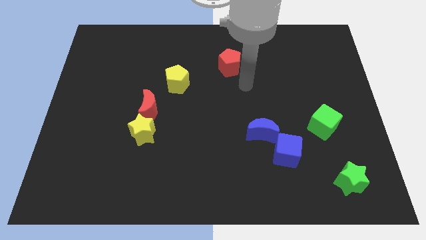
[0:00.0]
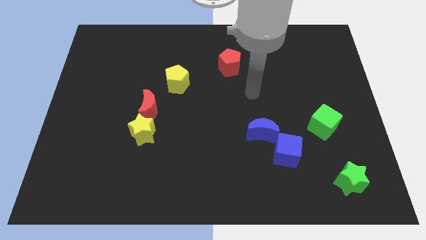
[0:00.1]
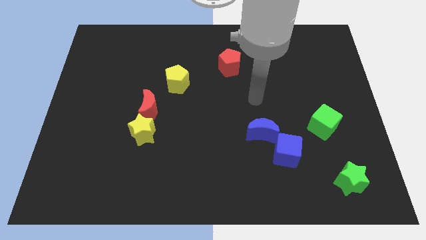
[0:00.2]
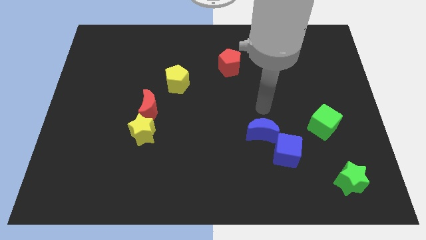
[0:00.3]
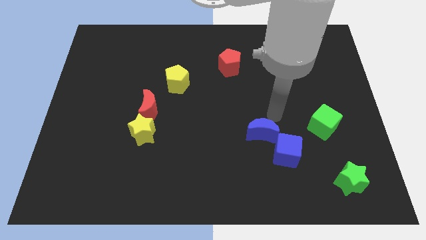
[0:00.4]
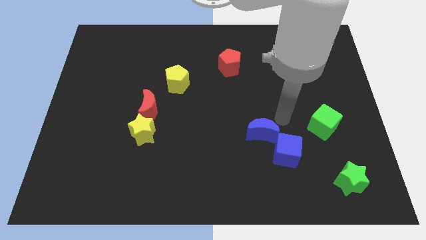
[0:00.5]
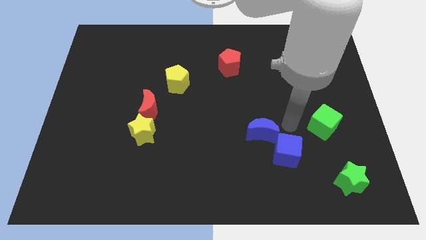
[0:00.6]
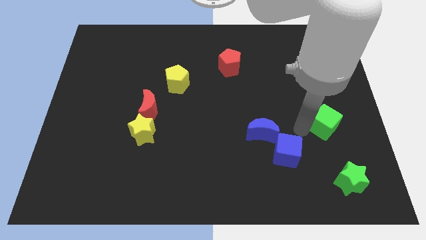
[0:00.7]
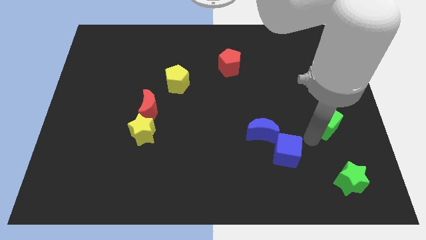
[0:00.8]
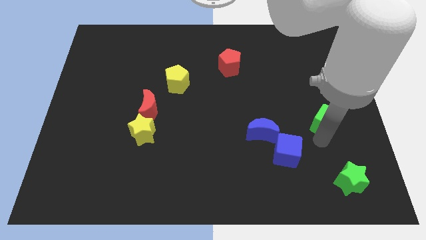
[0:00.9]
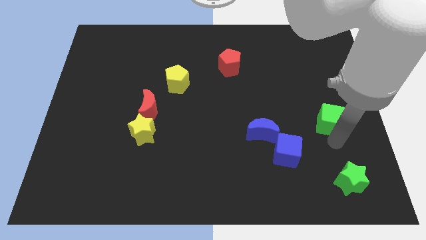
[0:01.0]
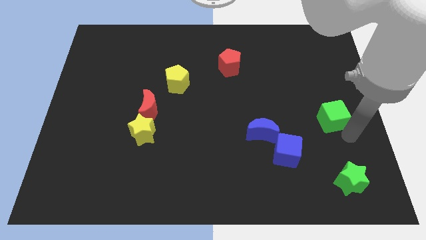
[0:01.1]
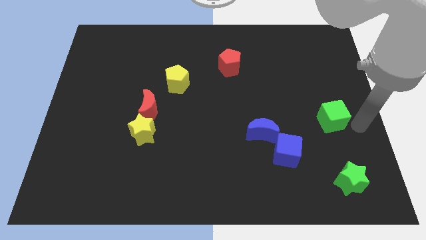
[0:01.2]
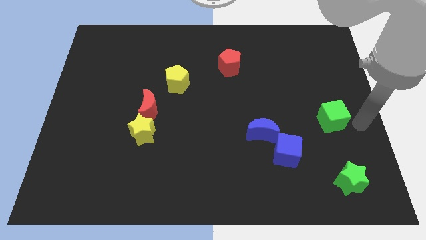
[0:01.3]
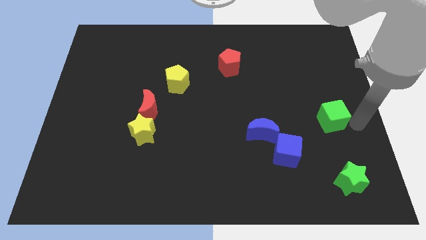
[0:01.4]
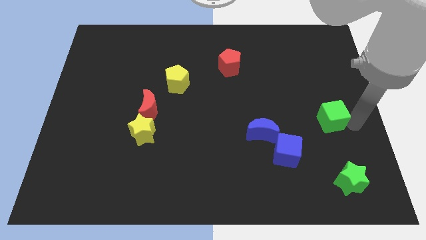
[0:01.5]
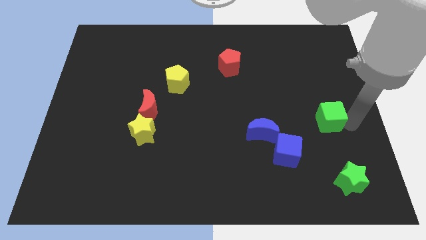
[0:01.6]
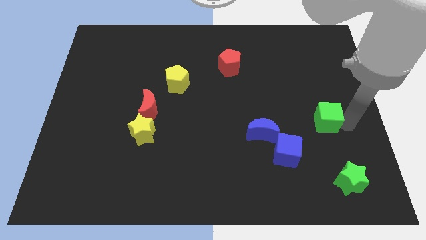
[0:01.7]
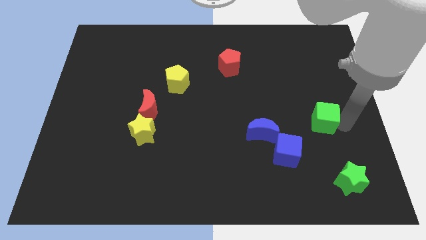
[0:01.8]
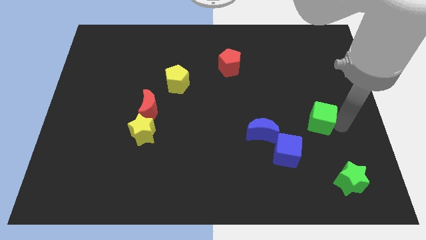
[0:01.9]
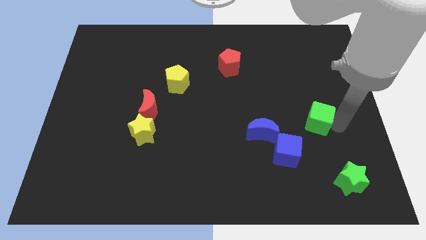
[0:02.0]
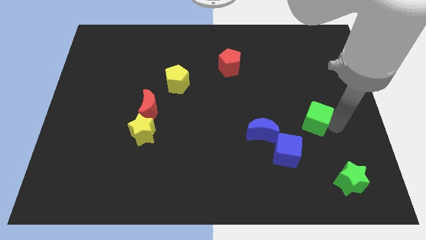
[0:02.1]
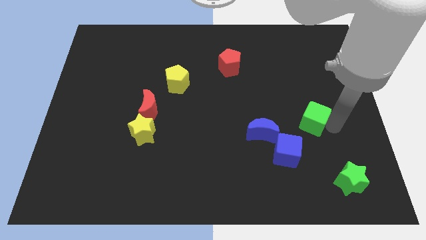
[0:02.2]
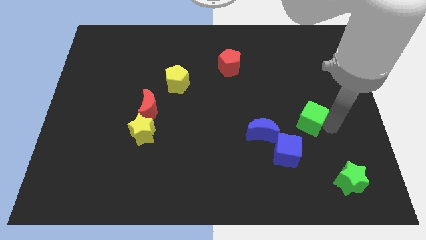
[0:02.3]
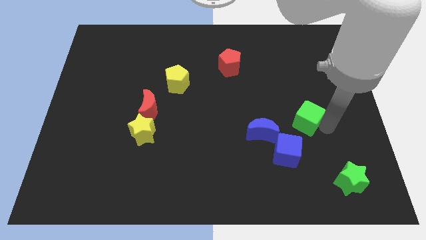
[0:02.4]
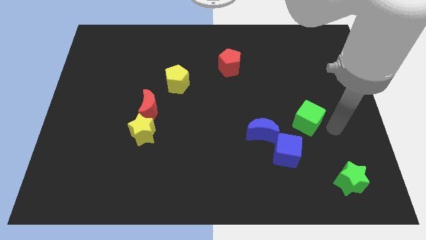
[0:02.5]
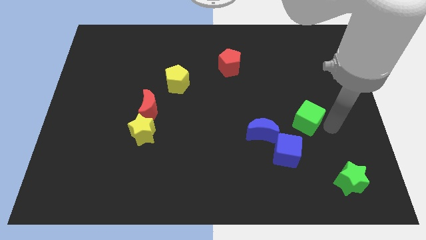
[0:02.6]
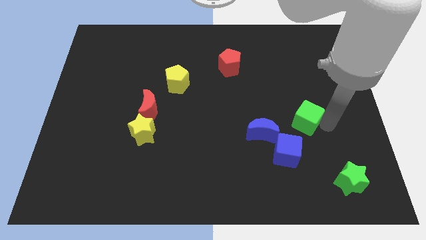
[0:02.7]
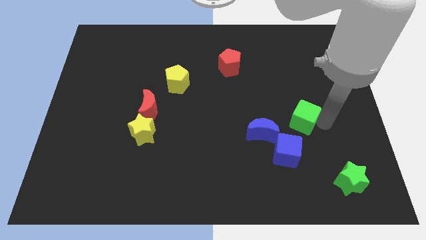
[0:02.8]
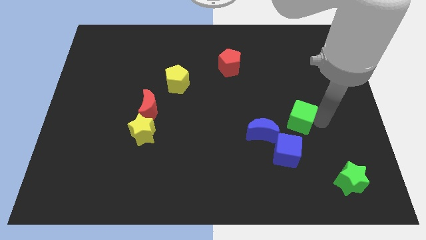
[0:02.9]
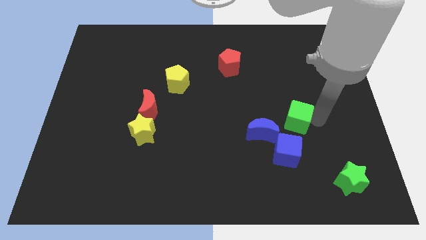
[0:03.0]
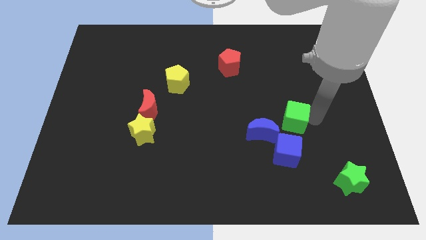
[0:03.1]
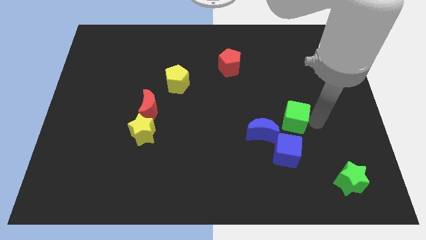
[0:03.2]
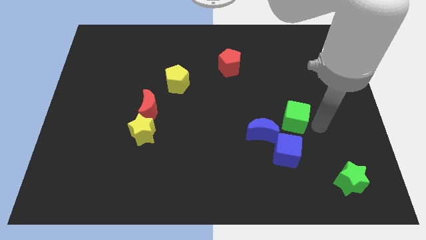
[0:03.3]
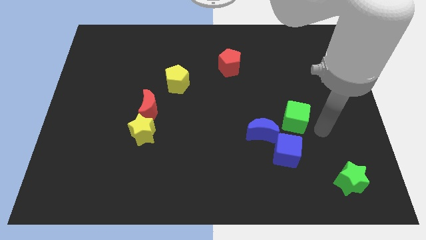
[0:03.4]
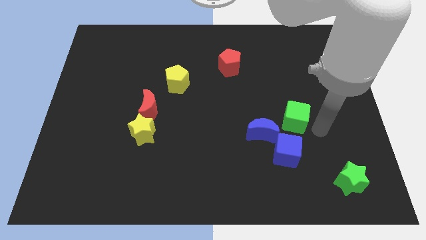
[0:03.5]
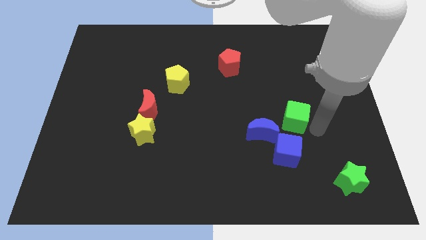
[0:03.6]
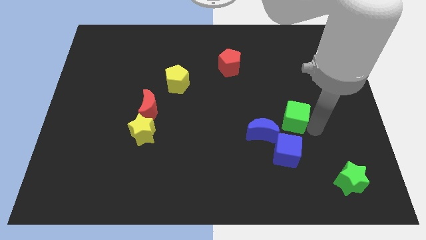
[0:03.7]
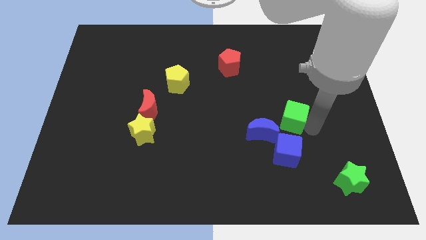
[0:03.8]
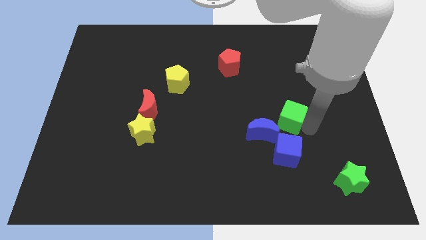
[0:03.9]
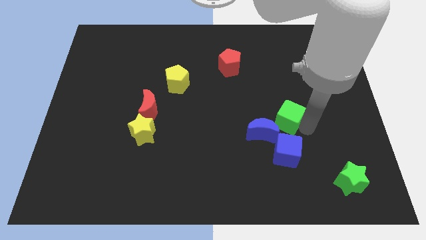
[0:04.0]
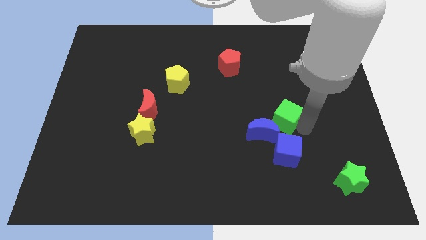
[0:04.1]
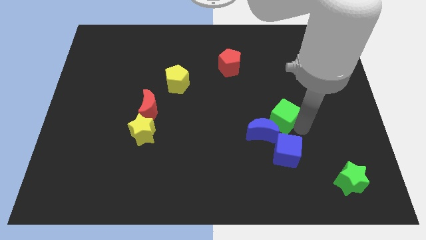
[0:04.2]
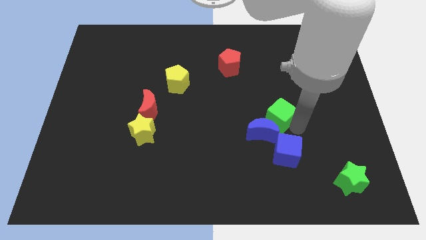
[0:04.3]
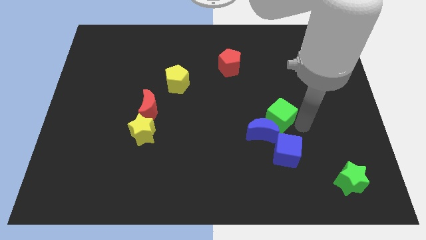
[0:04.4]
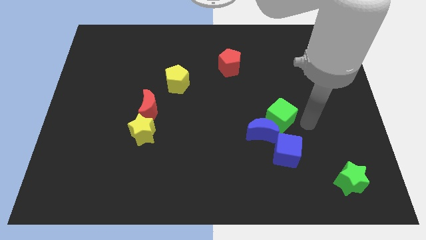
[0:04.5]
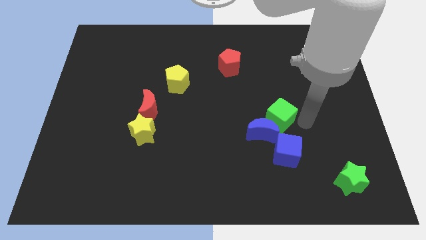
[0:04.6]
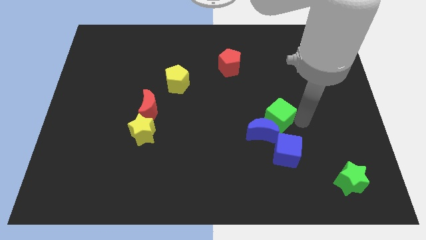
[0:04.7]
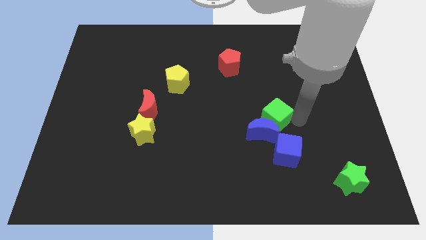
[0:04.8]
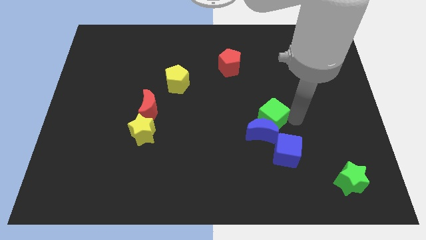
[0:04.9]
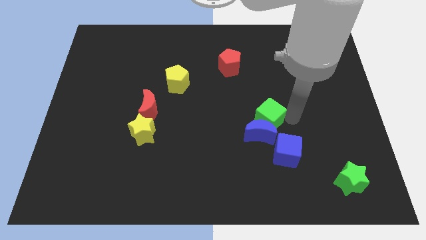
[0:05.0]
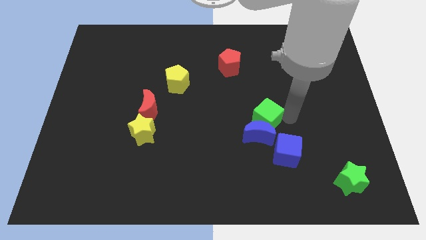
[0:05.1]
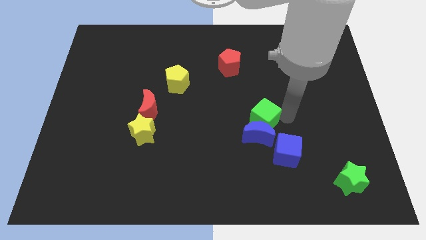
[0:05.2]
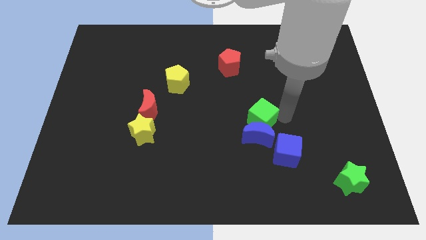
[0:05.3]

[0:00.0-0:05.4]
move the green cube to the center of the board

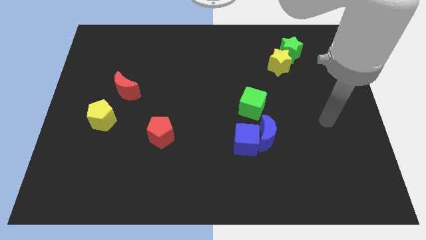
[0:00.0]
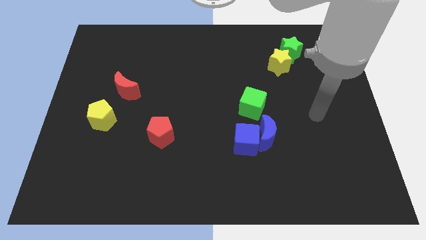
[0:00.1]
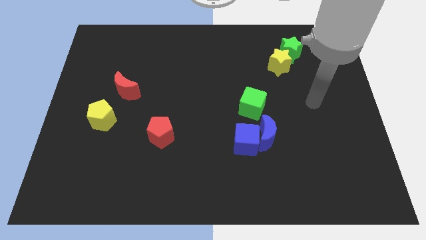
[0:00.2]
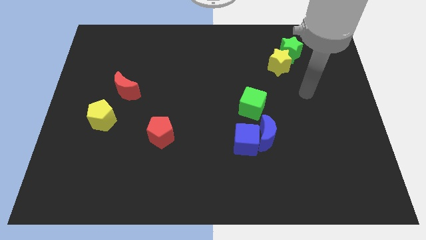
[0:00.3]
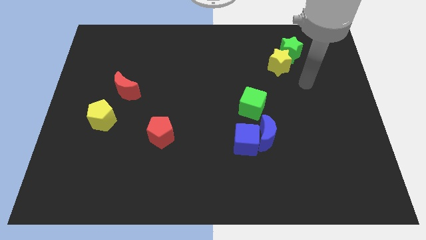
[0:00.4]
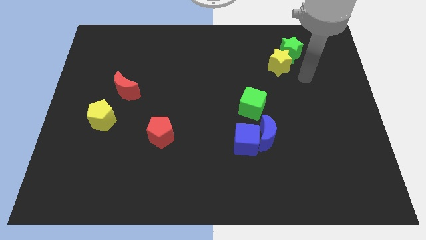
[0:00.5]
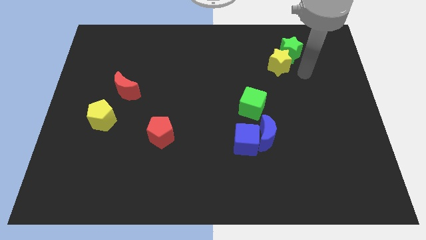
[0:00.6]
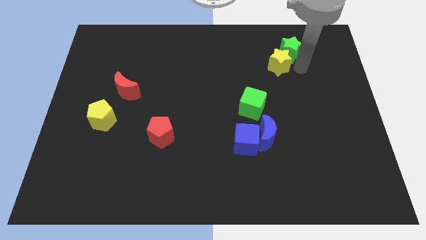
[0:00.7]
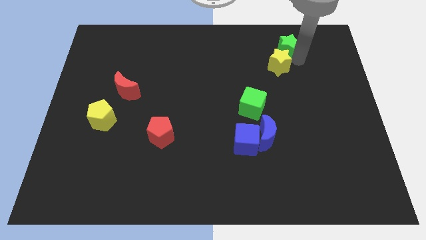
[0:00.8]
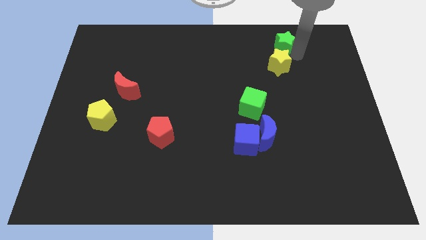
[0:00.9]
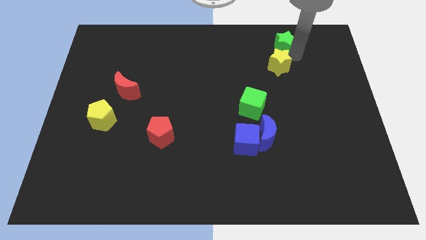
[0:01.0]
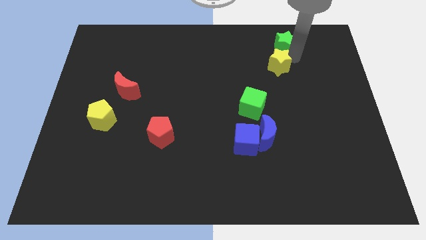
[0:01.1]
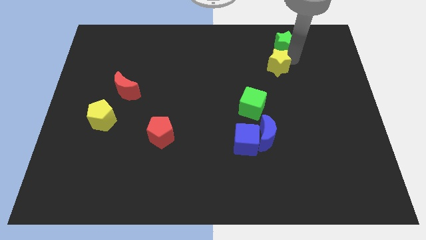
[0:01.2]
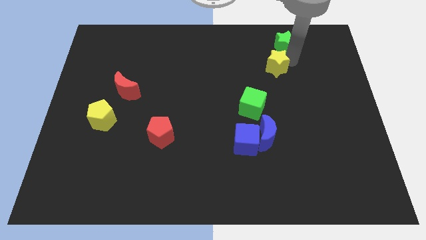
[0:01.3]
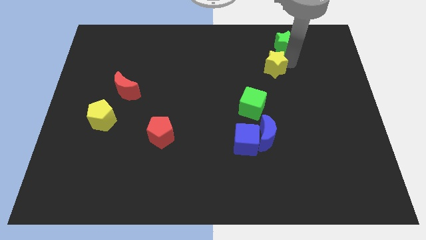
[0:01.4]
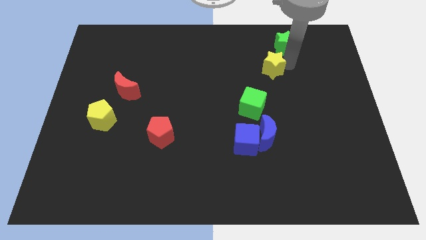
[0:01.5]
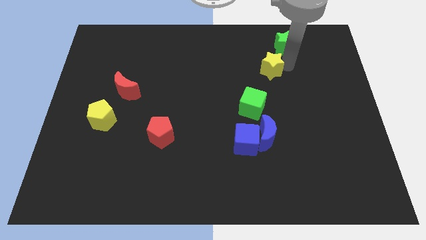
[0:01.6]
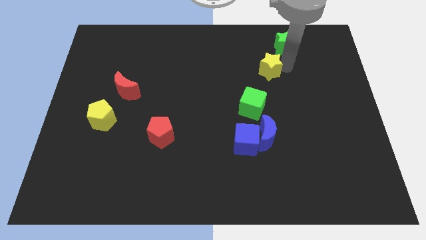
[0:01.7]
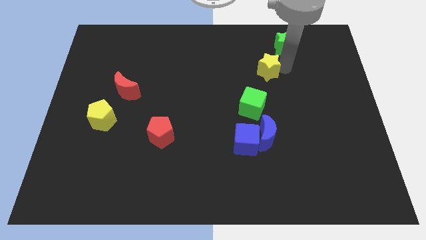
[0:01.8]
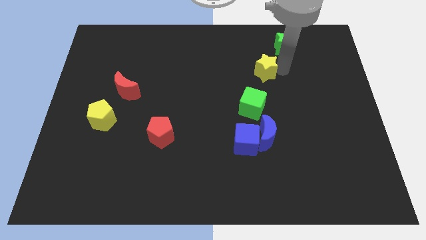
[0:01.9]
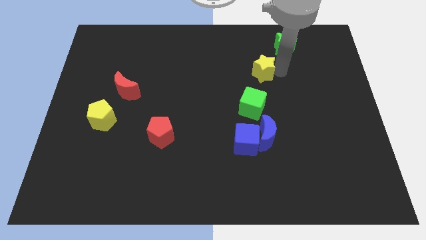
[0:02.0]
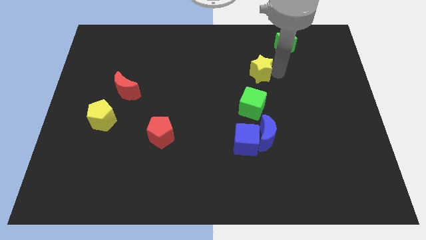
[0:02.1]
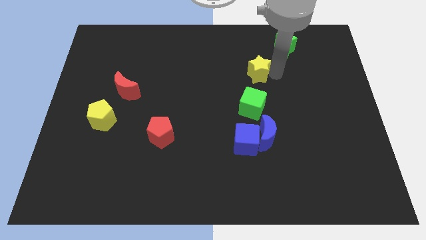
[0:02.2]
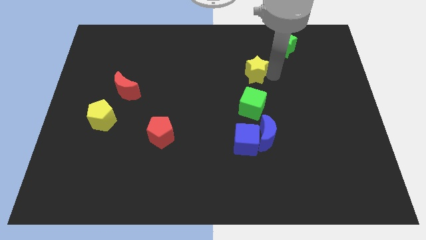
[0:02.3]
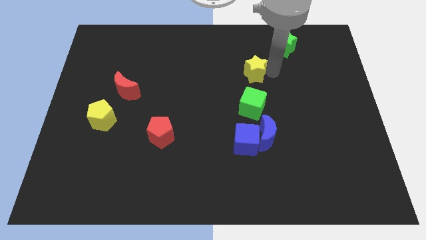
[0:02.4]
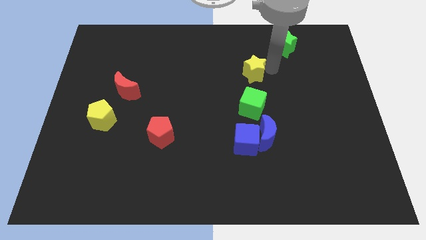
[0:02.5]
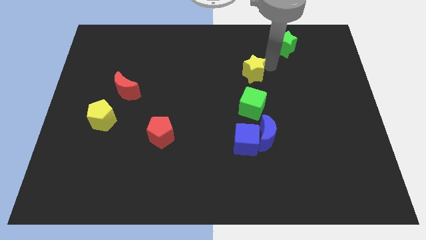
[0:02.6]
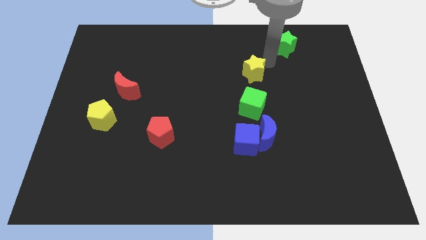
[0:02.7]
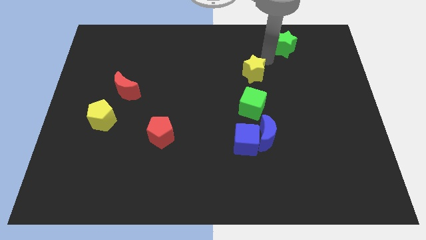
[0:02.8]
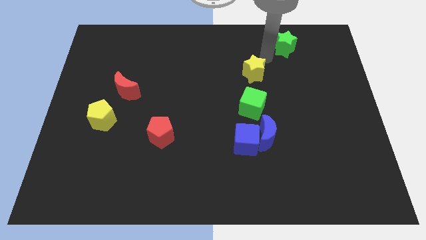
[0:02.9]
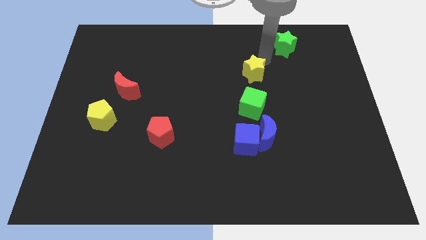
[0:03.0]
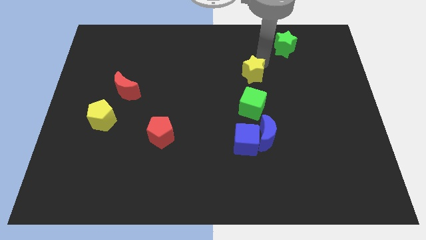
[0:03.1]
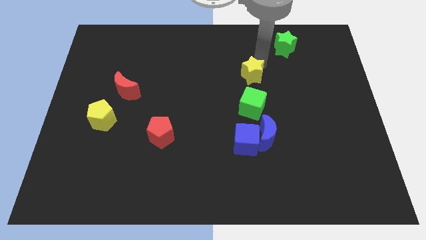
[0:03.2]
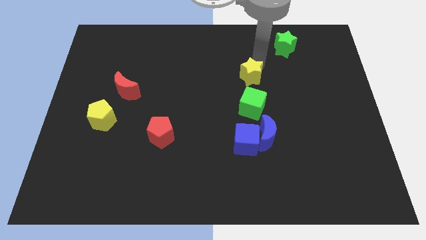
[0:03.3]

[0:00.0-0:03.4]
slide the yellow star to the center
